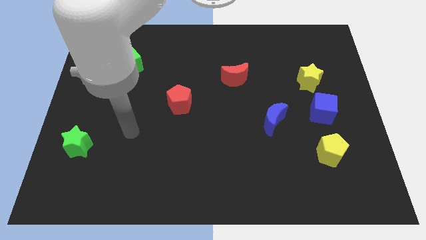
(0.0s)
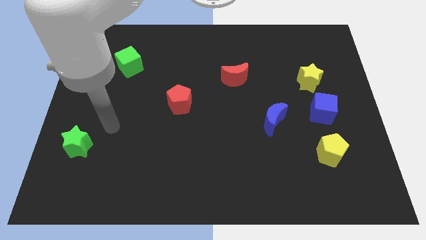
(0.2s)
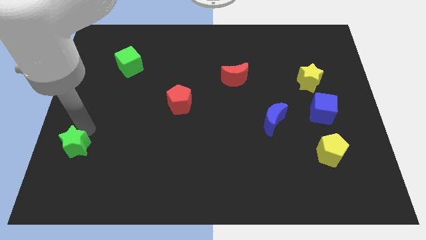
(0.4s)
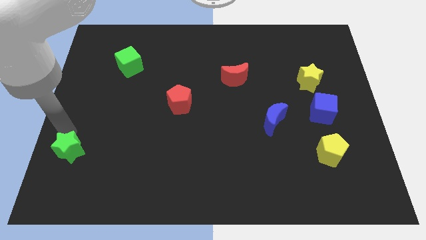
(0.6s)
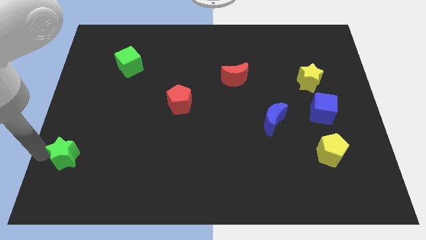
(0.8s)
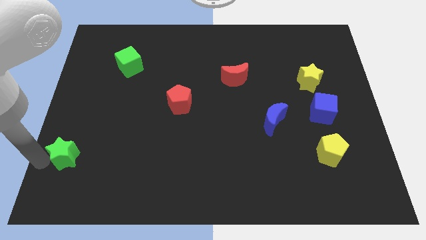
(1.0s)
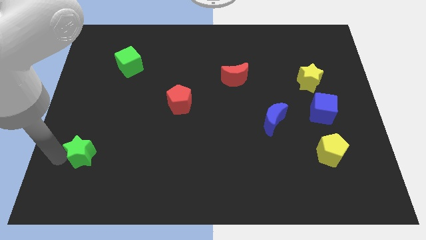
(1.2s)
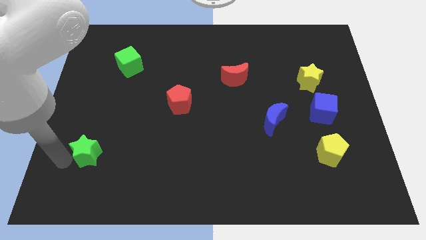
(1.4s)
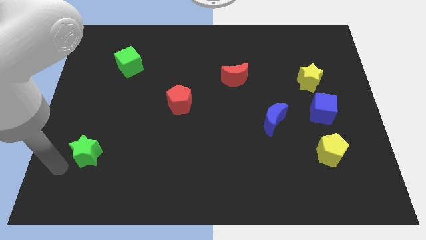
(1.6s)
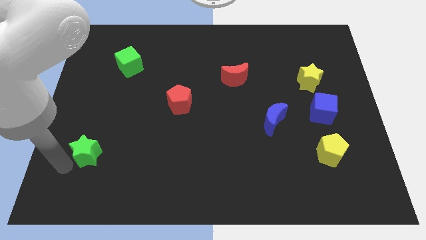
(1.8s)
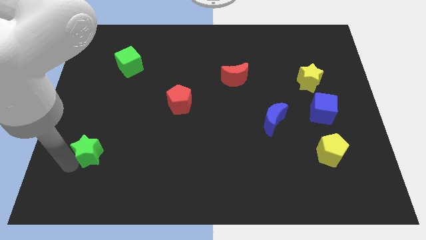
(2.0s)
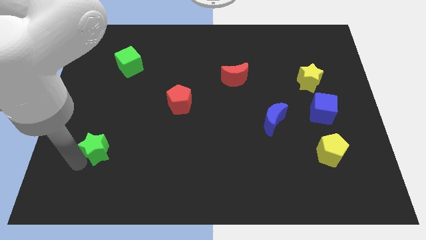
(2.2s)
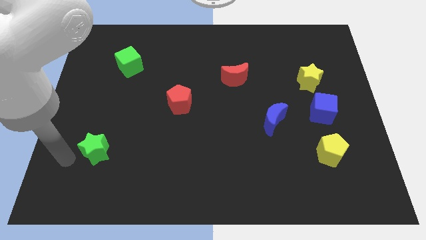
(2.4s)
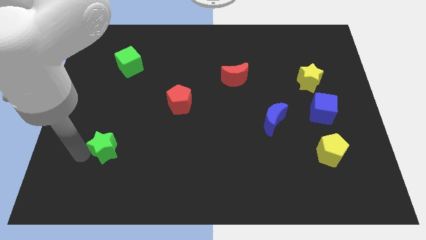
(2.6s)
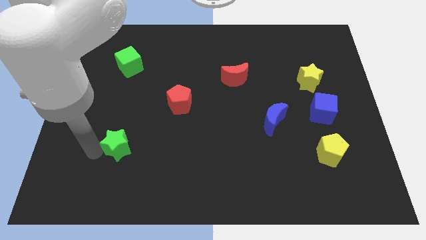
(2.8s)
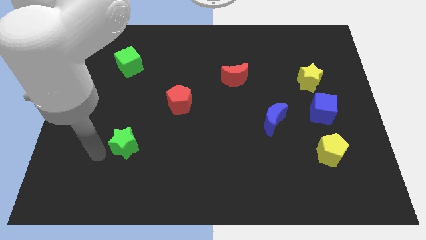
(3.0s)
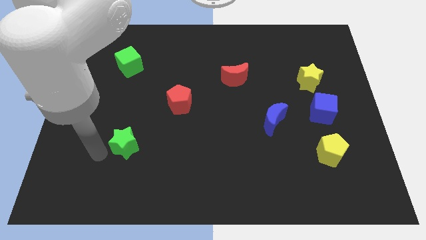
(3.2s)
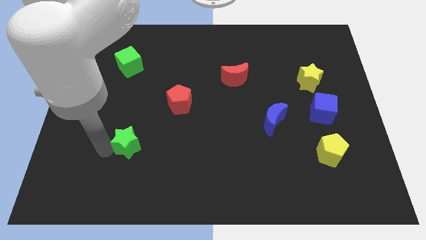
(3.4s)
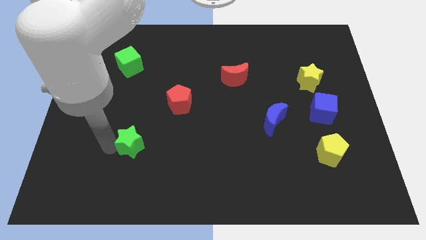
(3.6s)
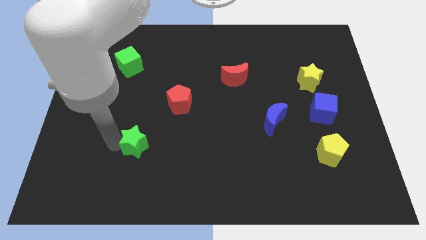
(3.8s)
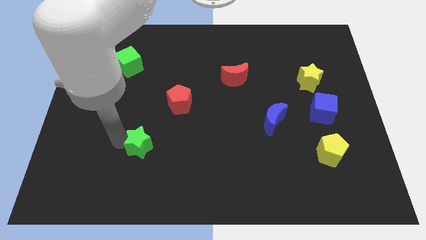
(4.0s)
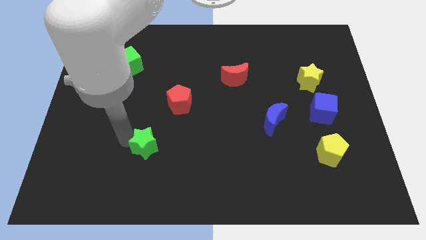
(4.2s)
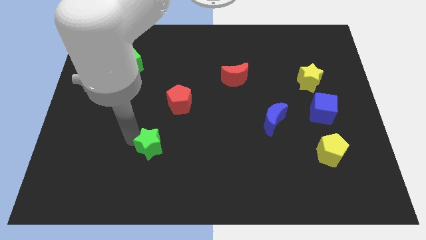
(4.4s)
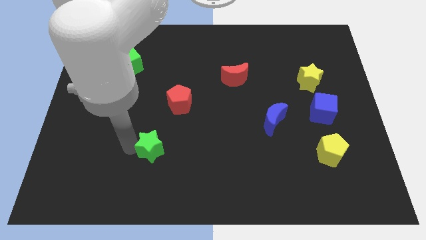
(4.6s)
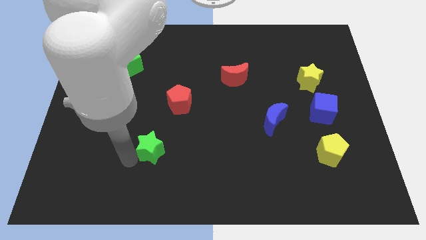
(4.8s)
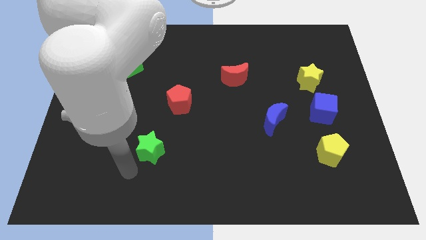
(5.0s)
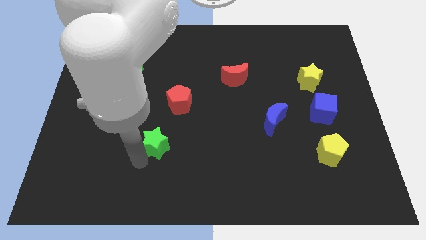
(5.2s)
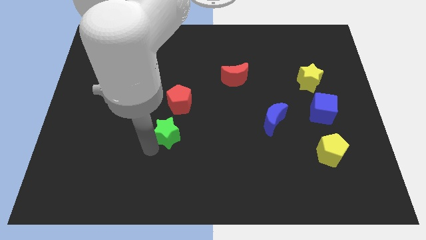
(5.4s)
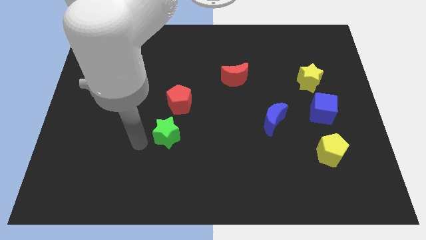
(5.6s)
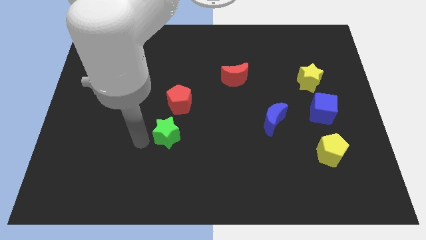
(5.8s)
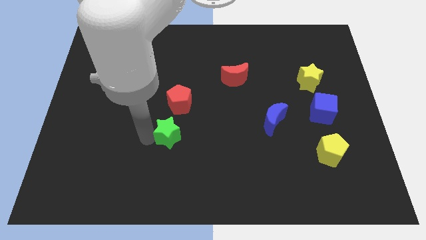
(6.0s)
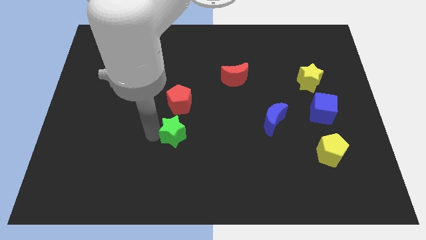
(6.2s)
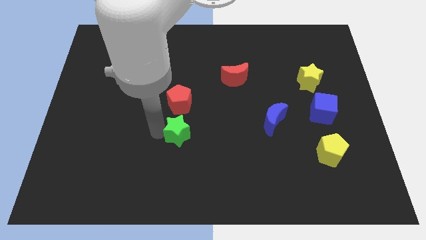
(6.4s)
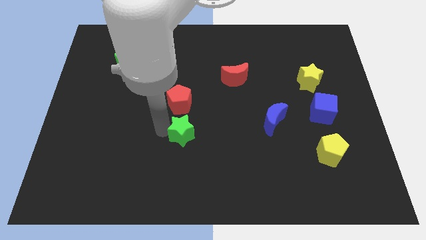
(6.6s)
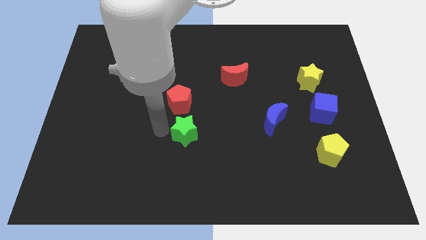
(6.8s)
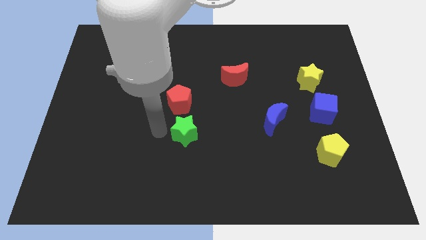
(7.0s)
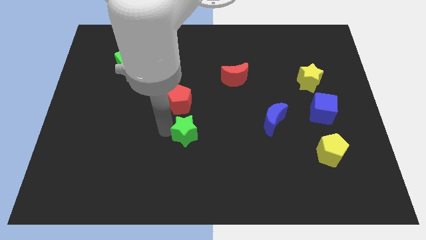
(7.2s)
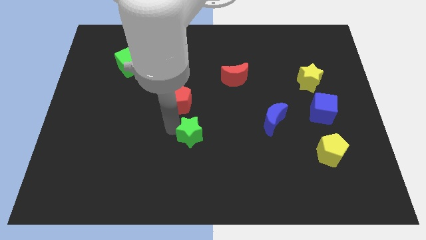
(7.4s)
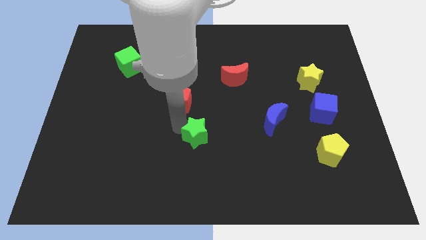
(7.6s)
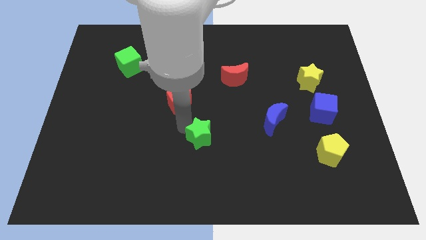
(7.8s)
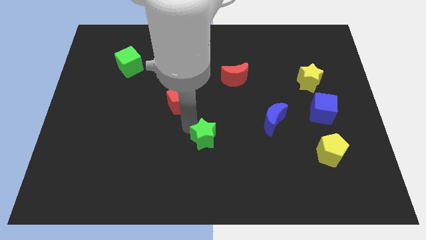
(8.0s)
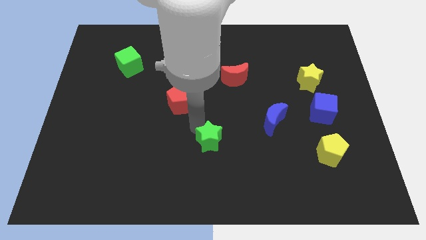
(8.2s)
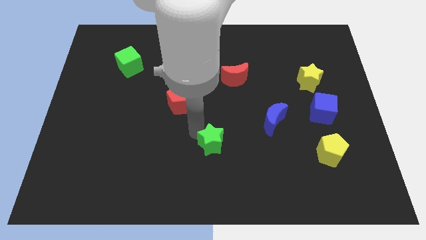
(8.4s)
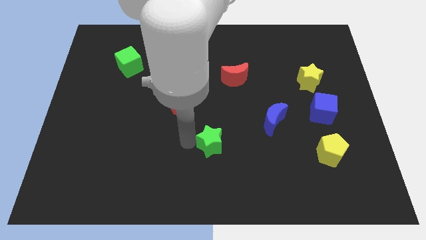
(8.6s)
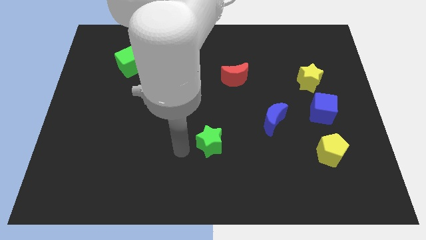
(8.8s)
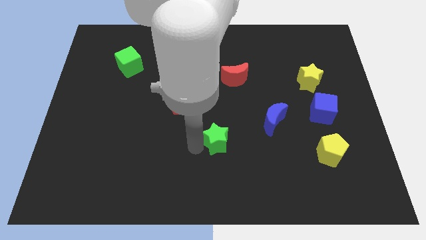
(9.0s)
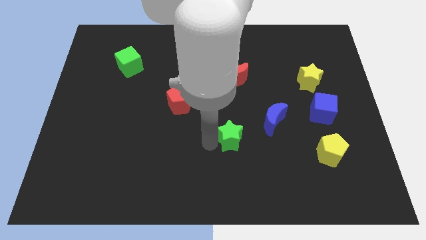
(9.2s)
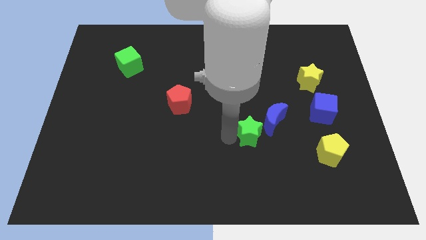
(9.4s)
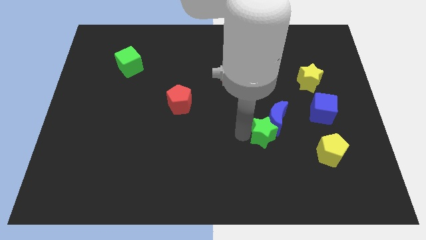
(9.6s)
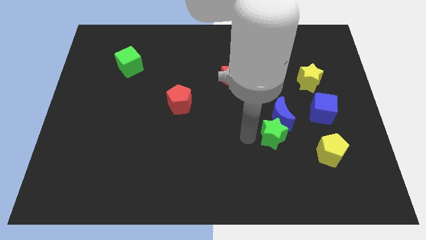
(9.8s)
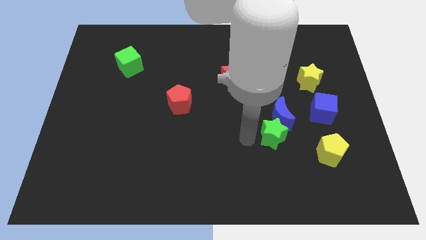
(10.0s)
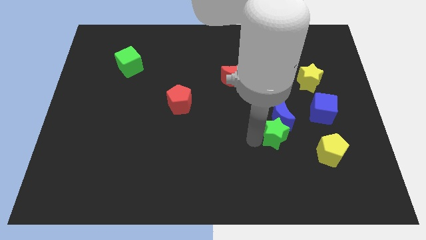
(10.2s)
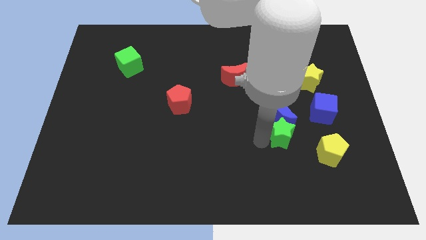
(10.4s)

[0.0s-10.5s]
push the green star to the top left side of the yellow pentagon

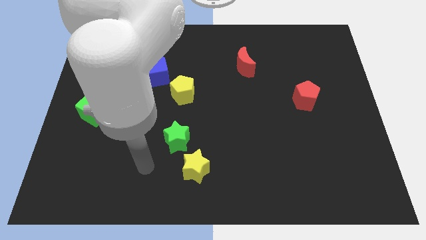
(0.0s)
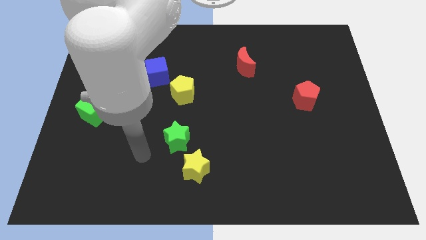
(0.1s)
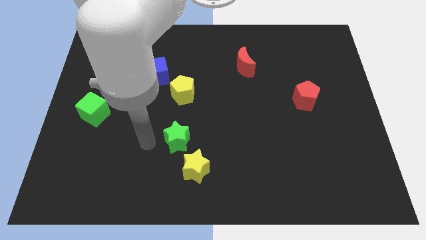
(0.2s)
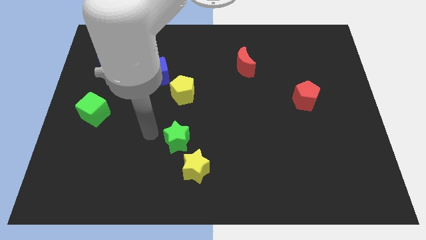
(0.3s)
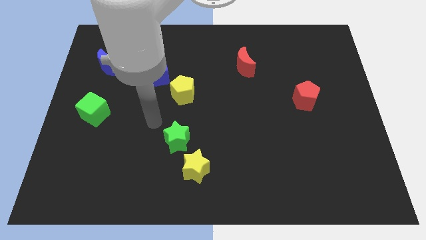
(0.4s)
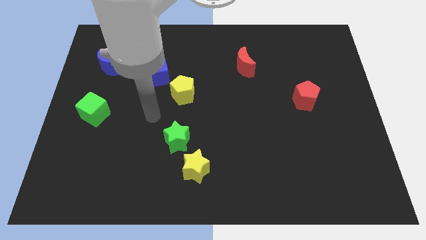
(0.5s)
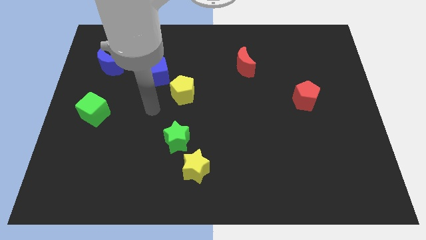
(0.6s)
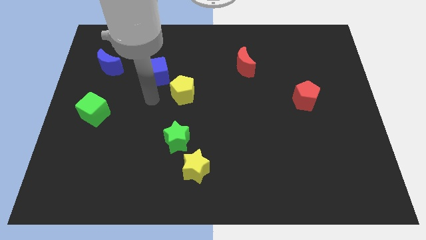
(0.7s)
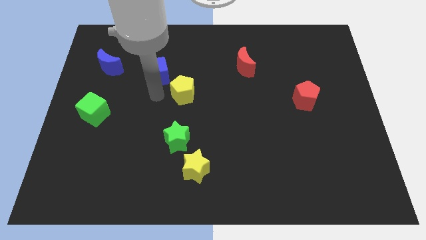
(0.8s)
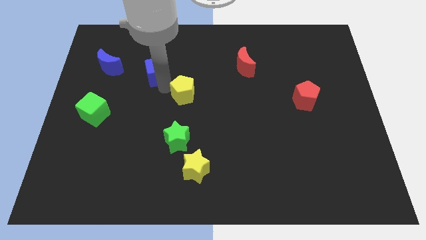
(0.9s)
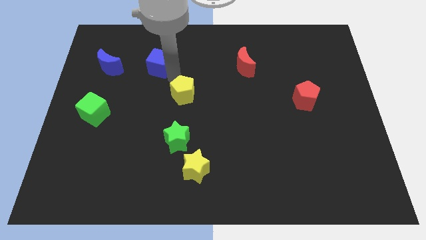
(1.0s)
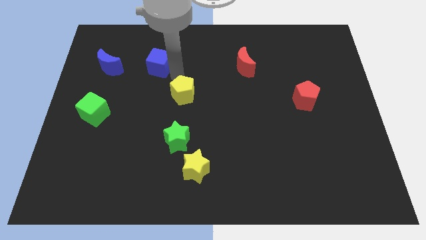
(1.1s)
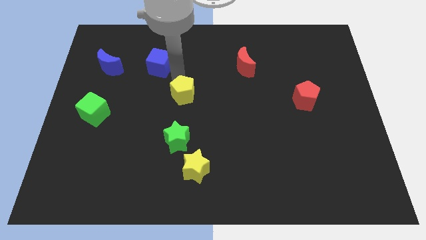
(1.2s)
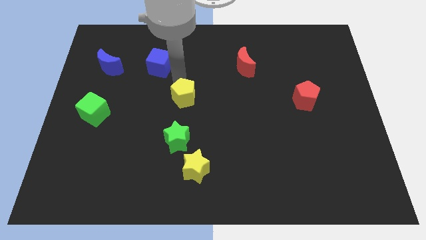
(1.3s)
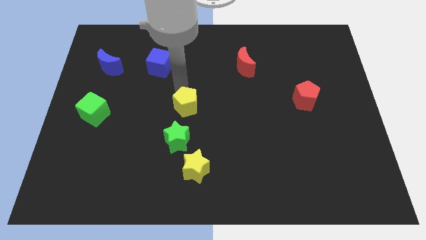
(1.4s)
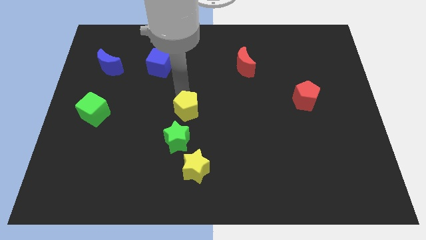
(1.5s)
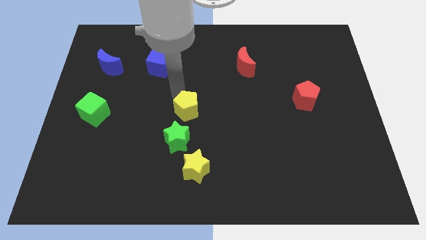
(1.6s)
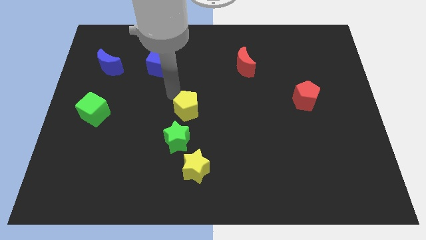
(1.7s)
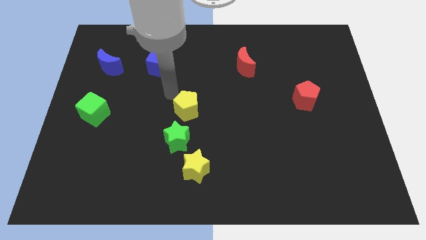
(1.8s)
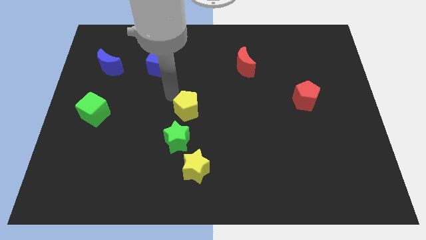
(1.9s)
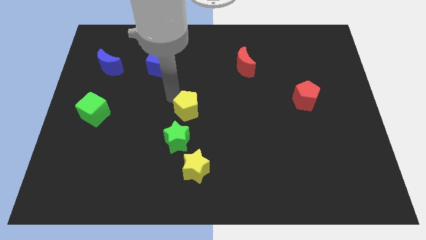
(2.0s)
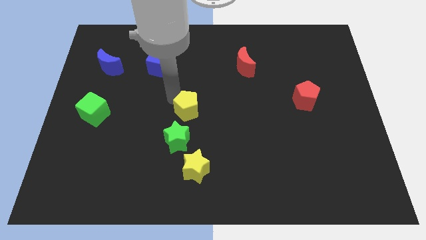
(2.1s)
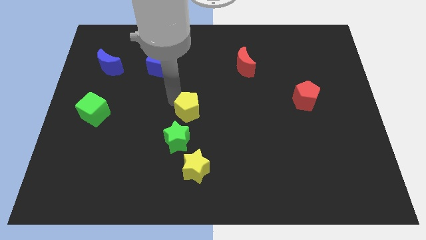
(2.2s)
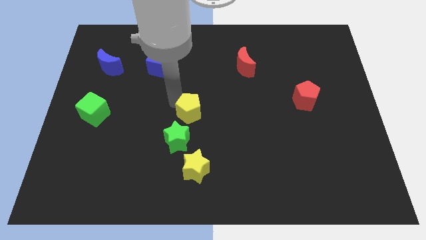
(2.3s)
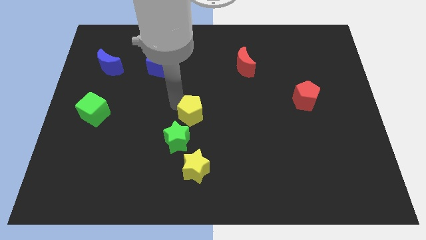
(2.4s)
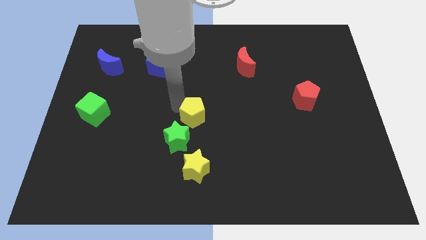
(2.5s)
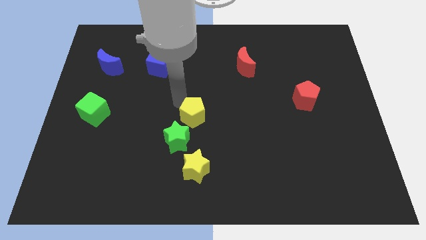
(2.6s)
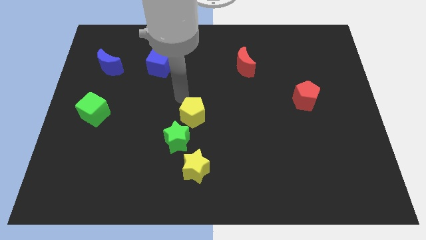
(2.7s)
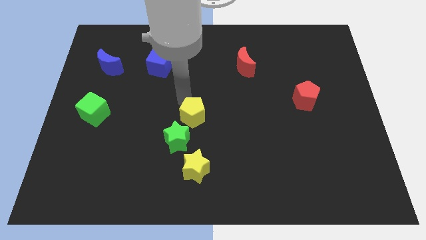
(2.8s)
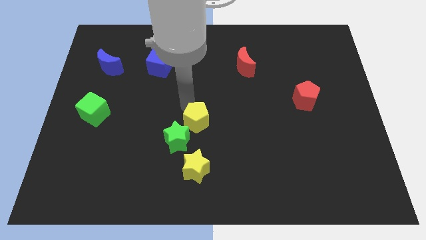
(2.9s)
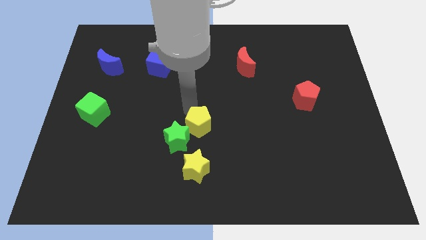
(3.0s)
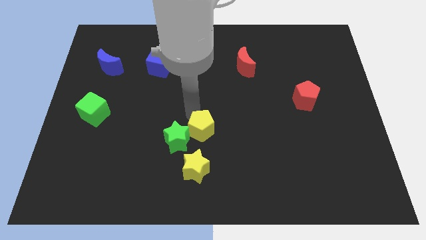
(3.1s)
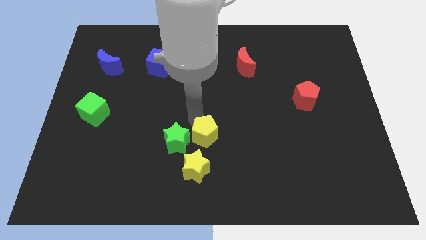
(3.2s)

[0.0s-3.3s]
push the yellow pentagon diagonally up and to the right of the yellow star
